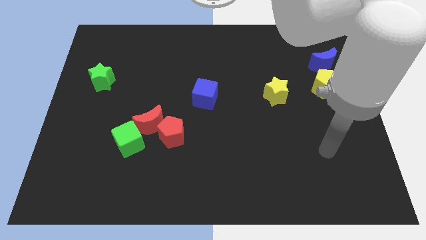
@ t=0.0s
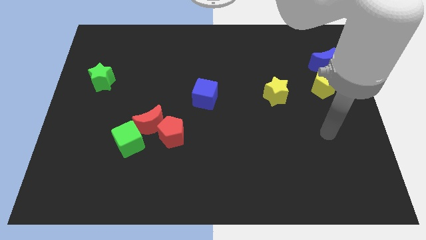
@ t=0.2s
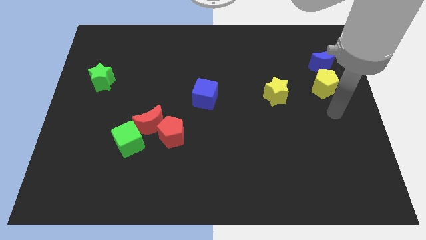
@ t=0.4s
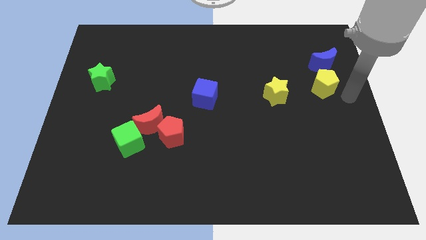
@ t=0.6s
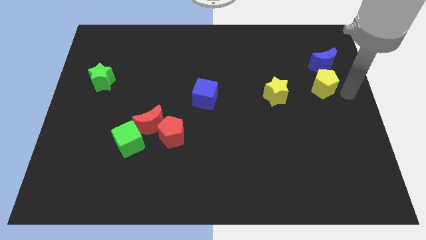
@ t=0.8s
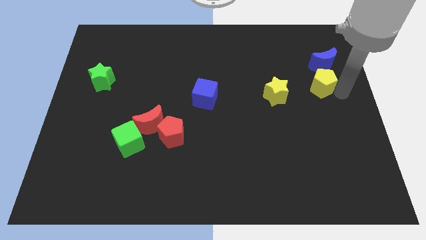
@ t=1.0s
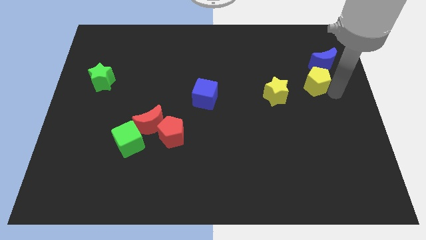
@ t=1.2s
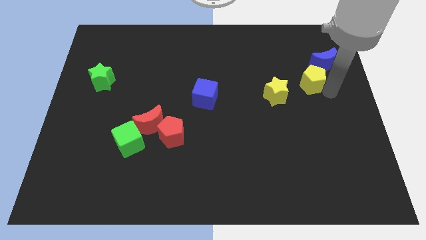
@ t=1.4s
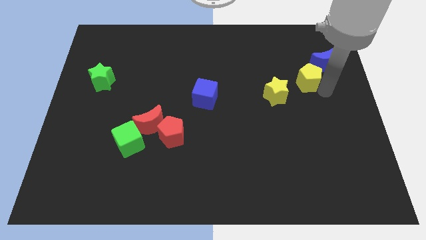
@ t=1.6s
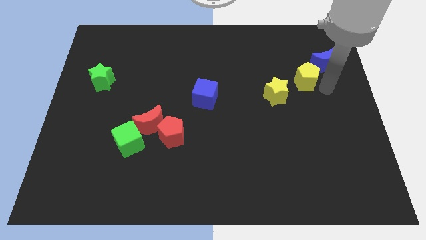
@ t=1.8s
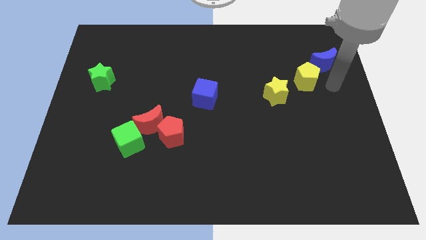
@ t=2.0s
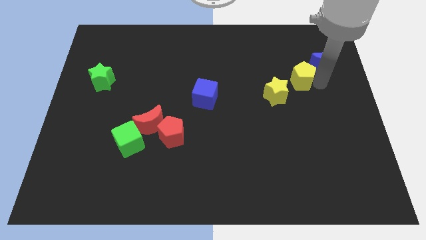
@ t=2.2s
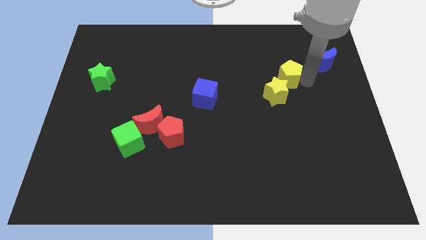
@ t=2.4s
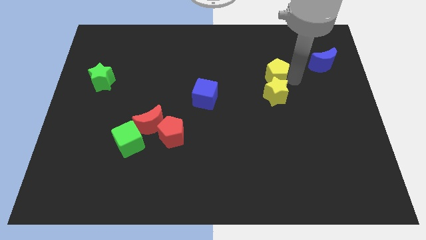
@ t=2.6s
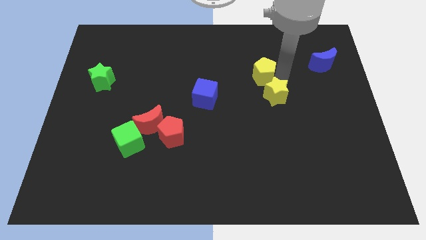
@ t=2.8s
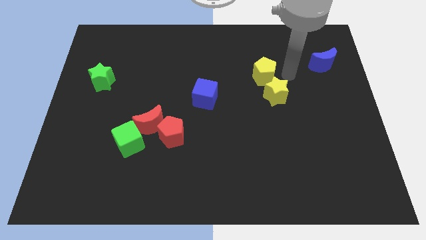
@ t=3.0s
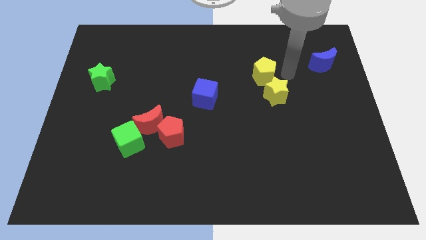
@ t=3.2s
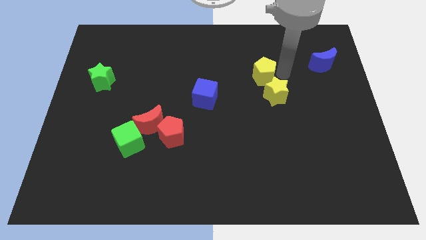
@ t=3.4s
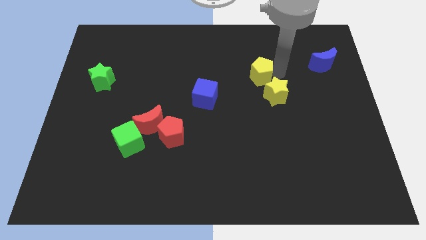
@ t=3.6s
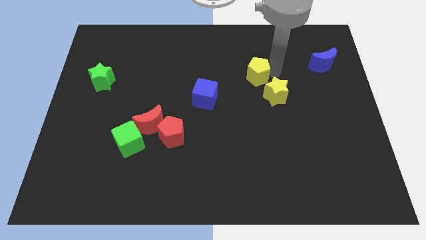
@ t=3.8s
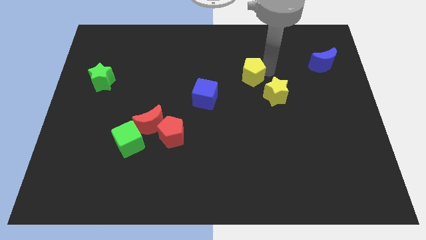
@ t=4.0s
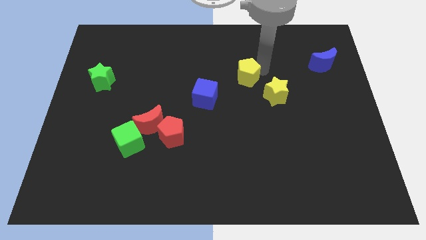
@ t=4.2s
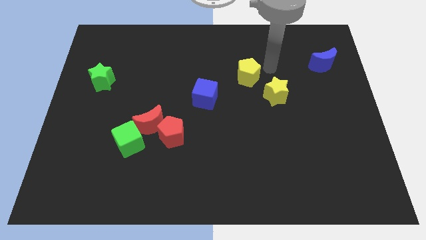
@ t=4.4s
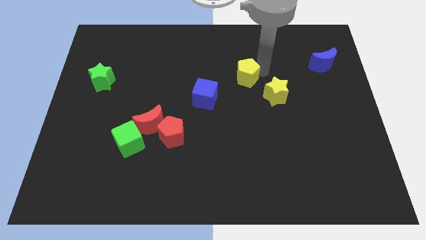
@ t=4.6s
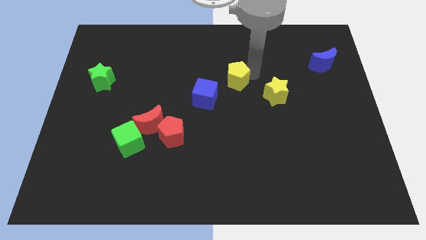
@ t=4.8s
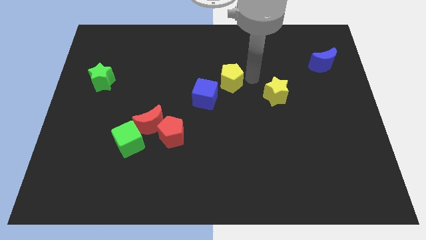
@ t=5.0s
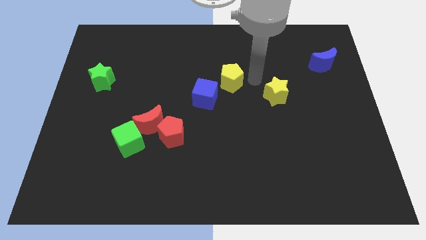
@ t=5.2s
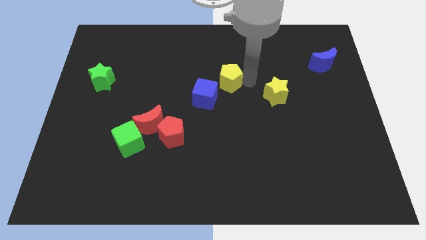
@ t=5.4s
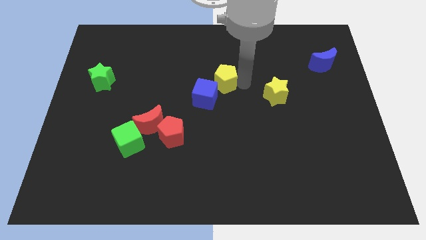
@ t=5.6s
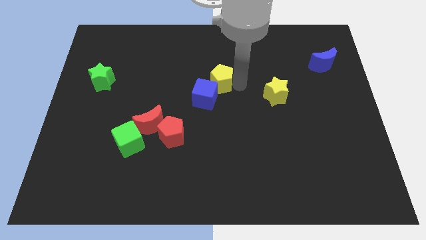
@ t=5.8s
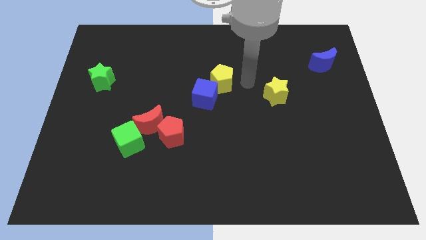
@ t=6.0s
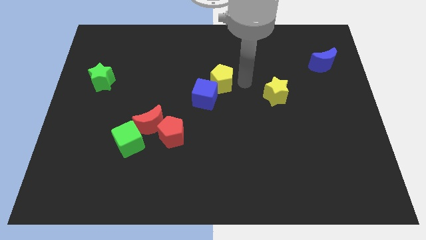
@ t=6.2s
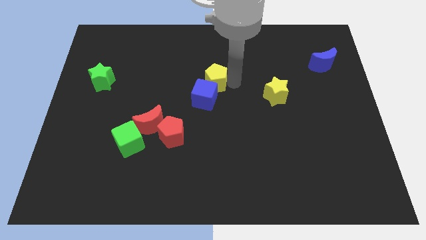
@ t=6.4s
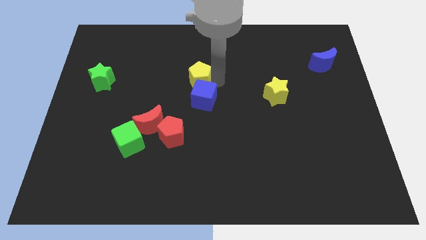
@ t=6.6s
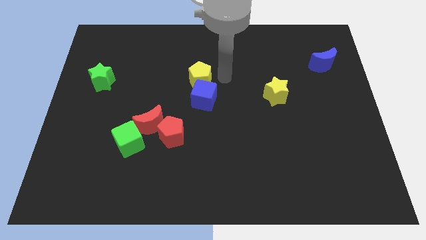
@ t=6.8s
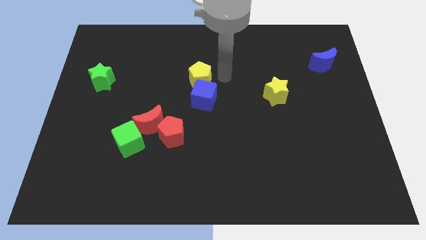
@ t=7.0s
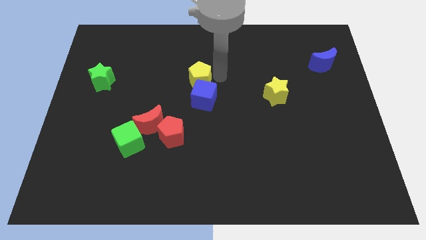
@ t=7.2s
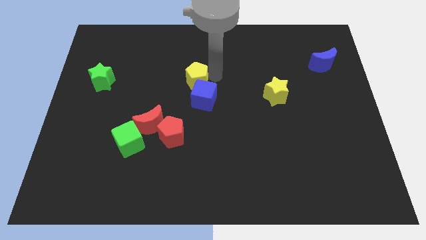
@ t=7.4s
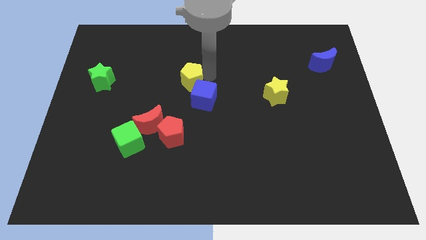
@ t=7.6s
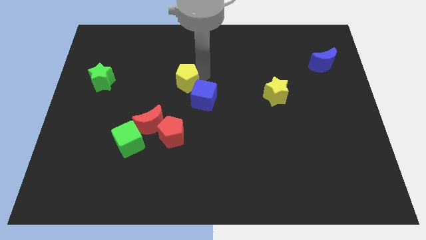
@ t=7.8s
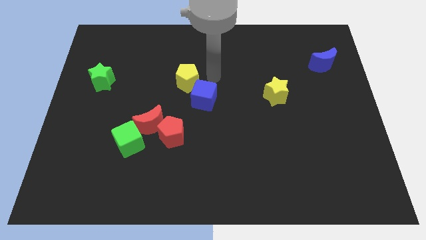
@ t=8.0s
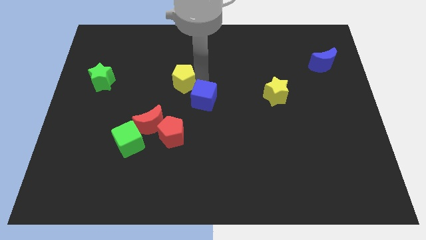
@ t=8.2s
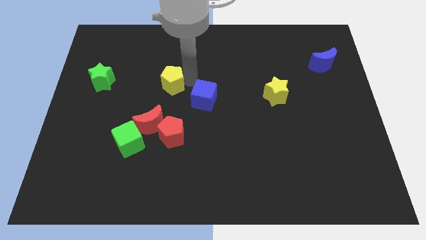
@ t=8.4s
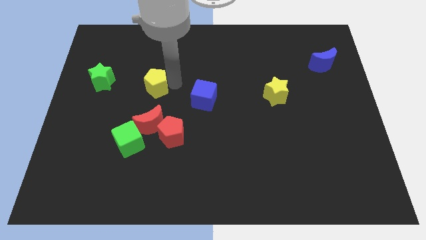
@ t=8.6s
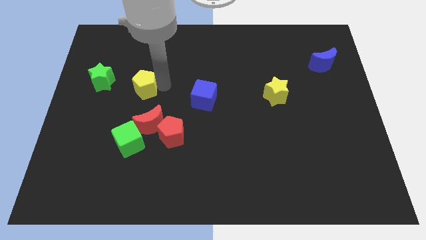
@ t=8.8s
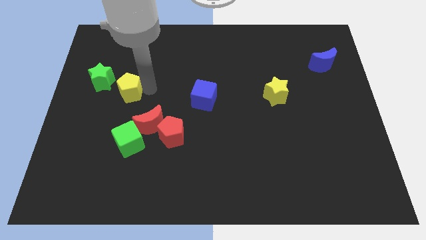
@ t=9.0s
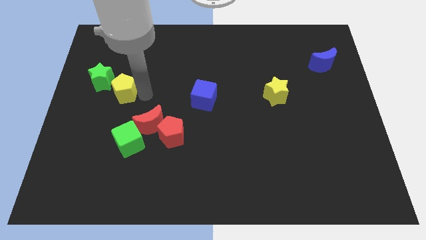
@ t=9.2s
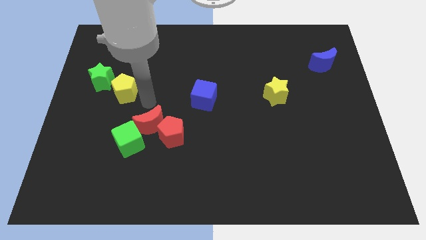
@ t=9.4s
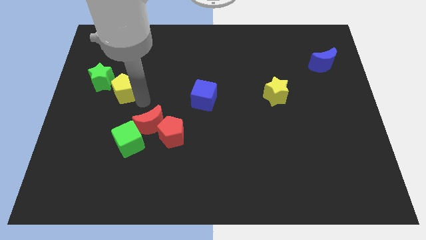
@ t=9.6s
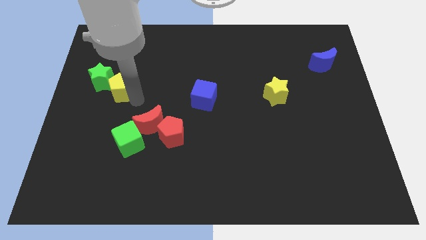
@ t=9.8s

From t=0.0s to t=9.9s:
put the yellow pentagon close to the green star

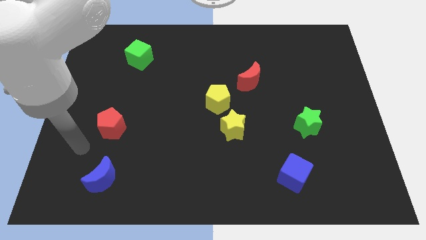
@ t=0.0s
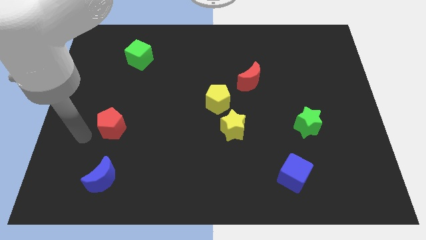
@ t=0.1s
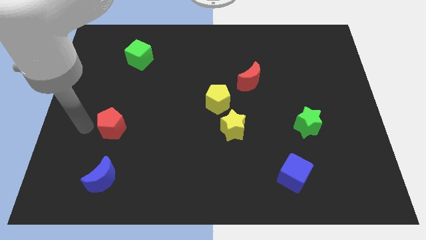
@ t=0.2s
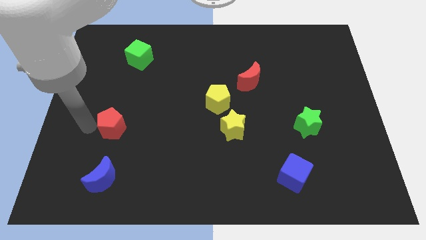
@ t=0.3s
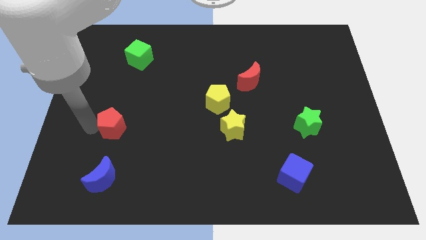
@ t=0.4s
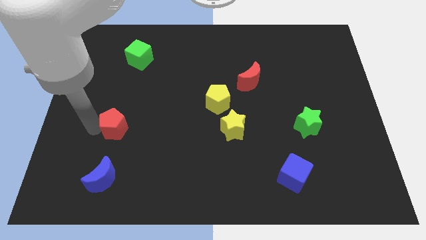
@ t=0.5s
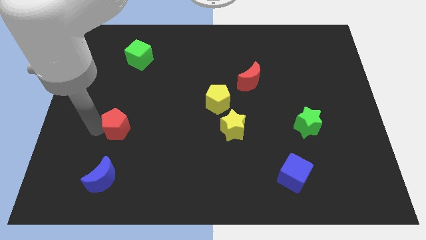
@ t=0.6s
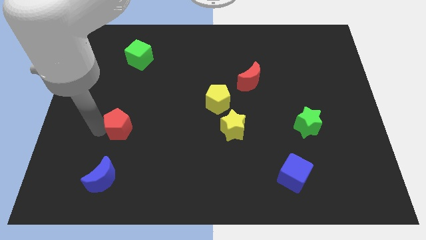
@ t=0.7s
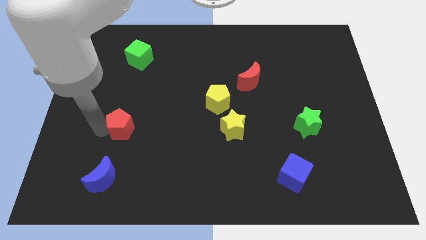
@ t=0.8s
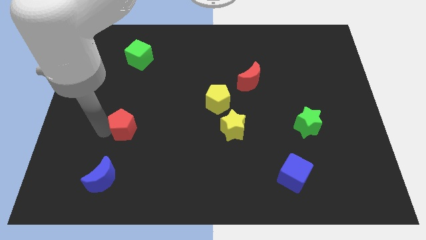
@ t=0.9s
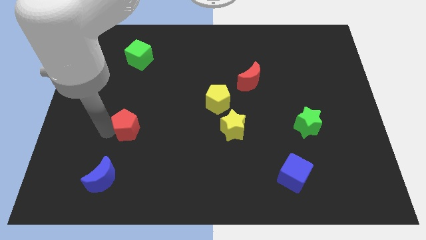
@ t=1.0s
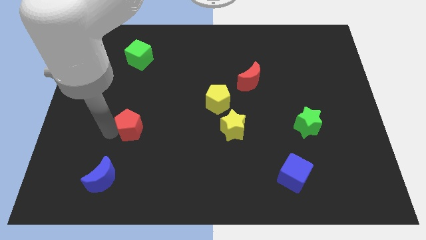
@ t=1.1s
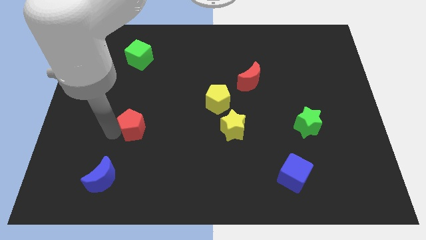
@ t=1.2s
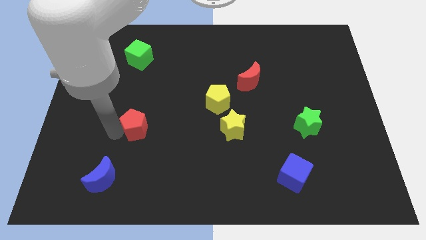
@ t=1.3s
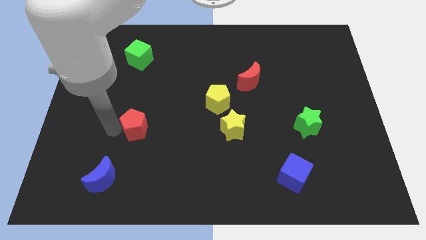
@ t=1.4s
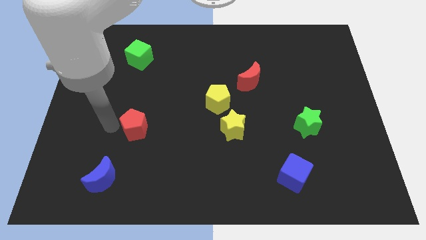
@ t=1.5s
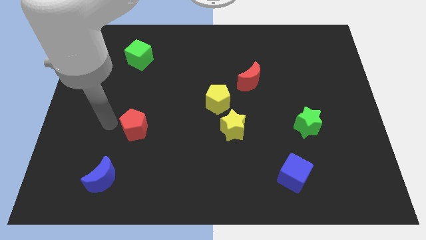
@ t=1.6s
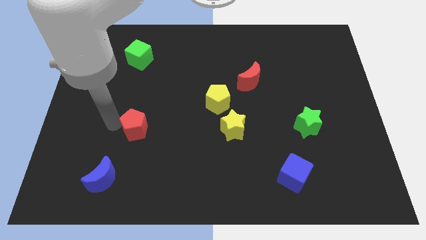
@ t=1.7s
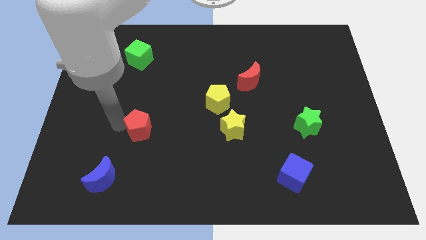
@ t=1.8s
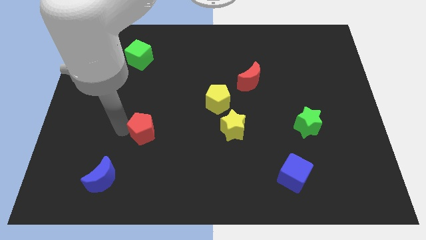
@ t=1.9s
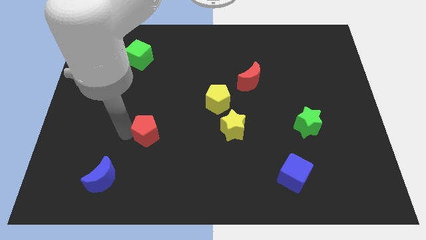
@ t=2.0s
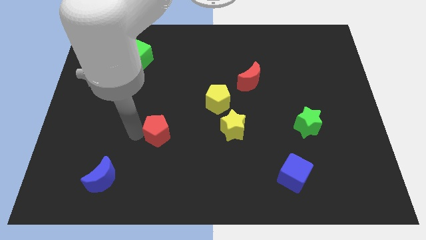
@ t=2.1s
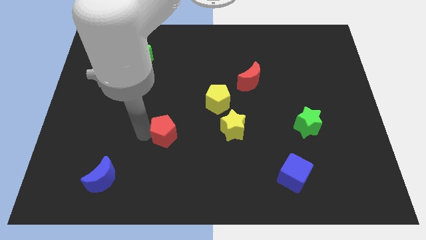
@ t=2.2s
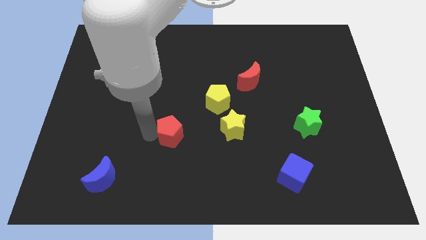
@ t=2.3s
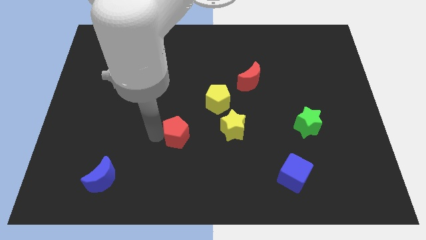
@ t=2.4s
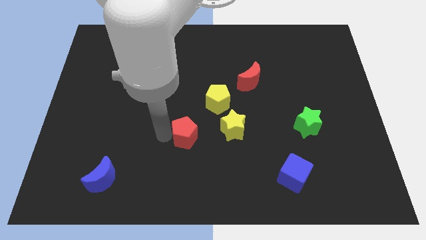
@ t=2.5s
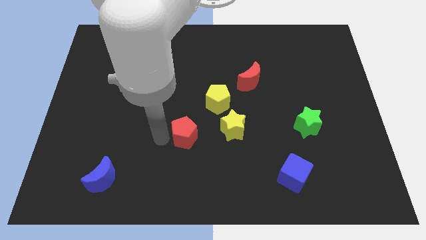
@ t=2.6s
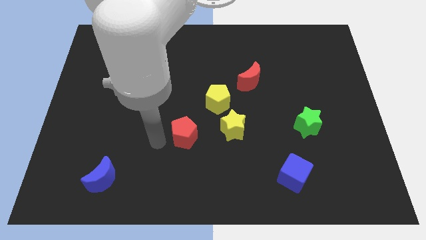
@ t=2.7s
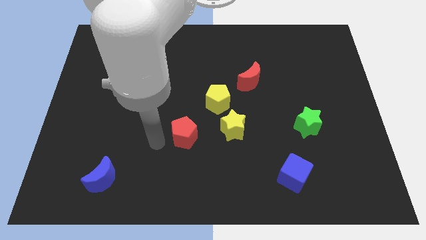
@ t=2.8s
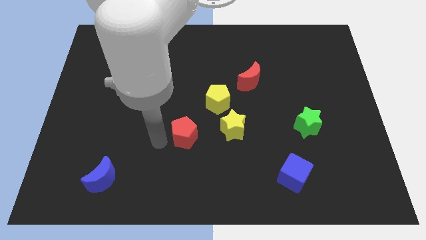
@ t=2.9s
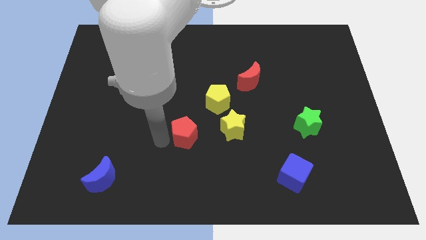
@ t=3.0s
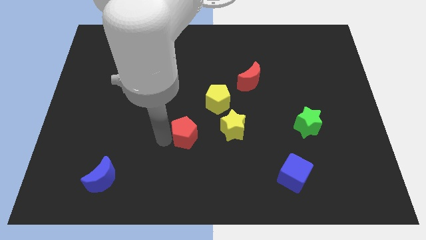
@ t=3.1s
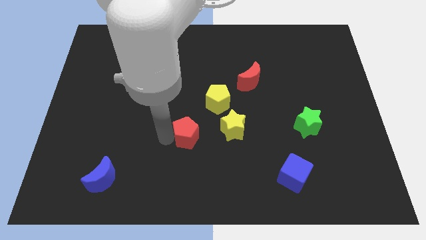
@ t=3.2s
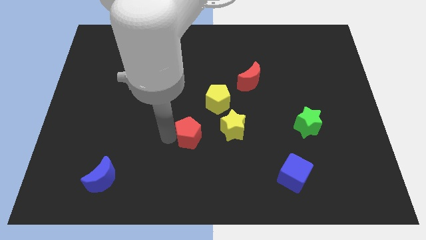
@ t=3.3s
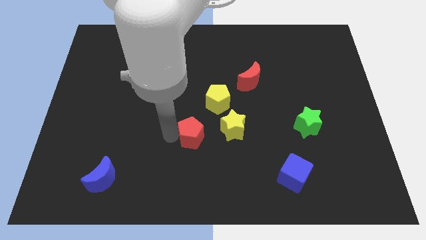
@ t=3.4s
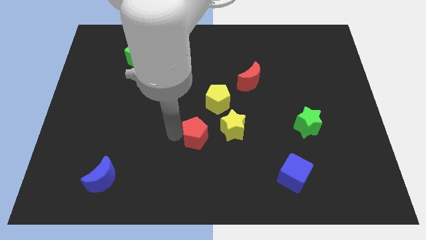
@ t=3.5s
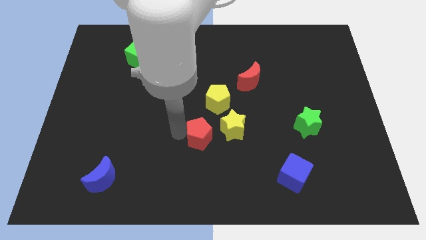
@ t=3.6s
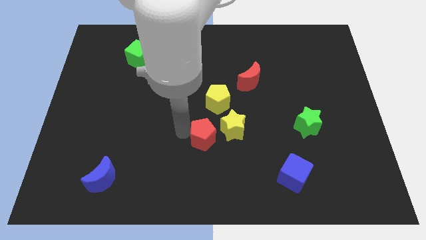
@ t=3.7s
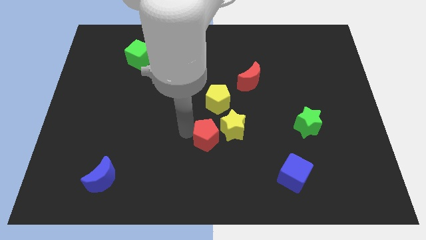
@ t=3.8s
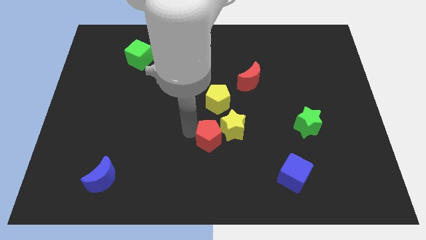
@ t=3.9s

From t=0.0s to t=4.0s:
slide the red pentagon to the yellow star
